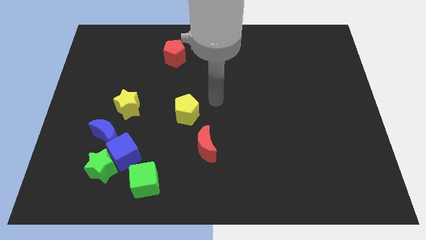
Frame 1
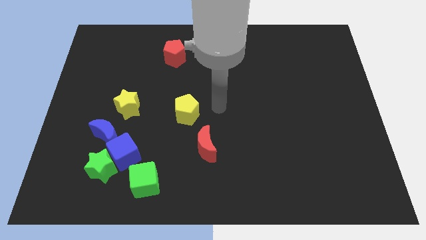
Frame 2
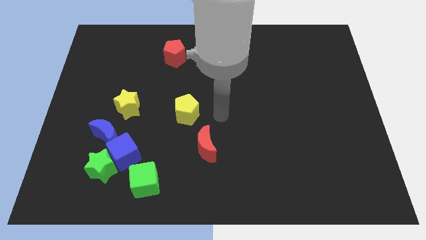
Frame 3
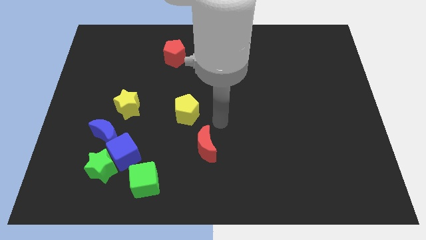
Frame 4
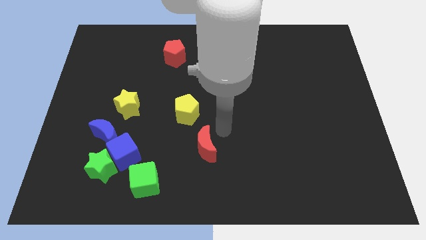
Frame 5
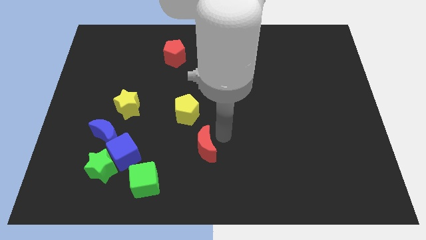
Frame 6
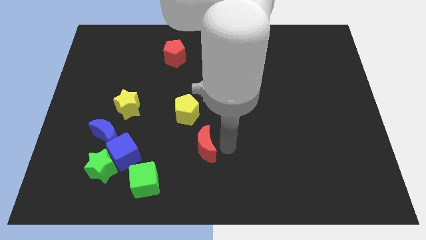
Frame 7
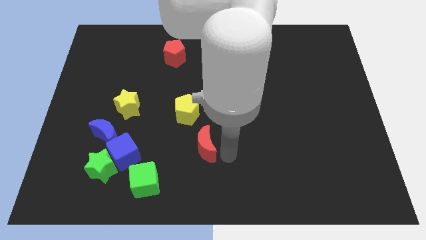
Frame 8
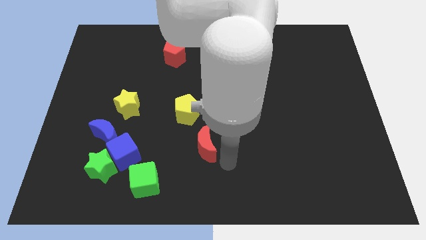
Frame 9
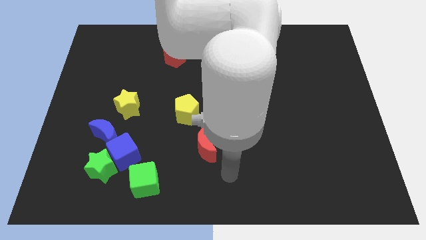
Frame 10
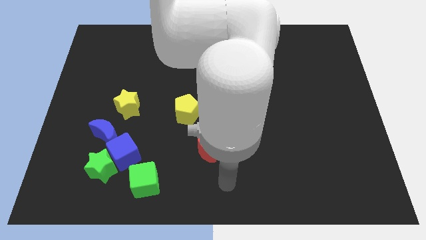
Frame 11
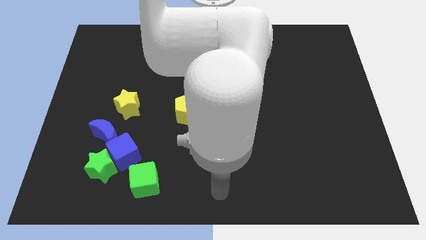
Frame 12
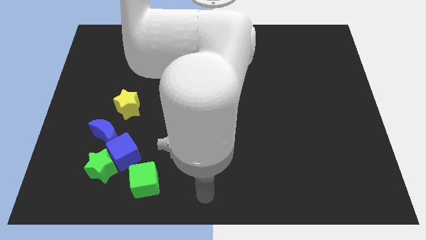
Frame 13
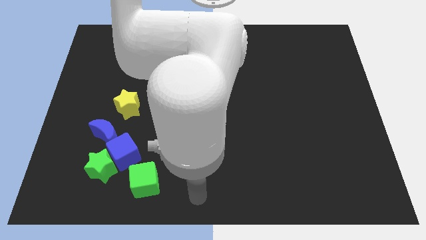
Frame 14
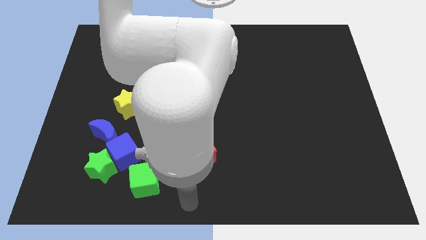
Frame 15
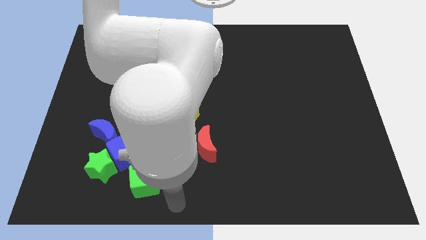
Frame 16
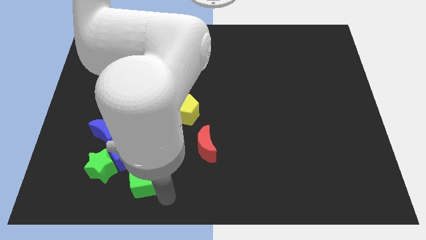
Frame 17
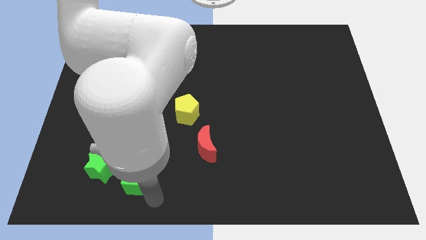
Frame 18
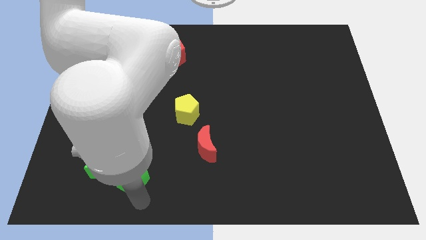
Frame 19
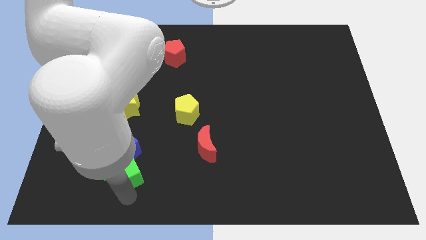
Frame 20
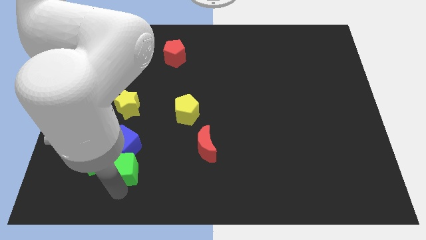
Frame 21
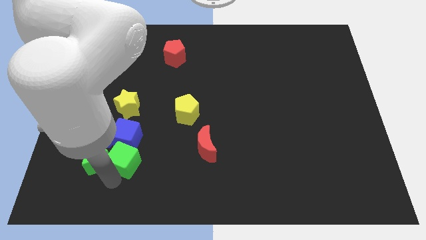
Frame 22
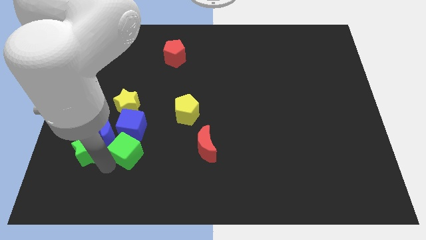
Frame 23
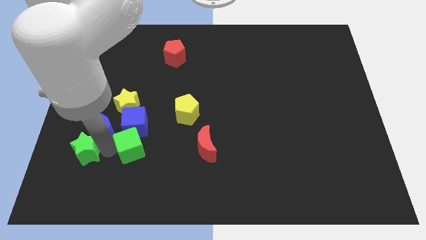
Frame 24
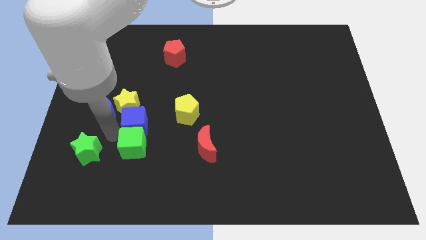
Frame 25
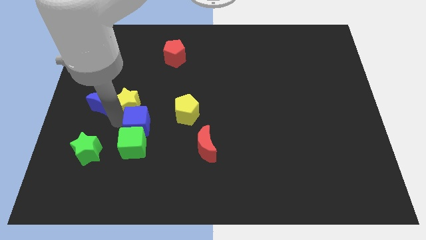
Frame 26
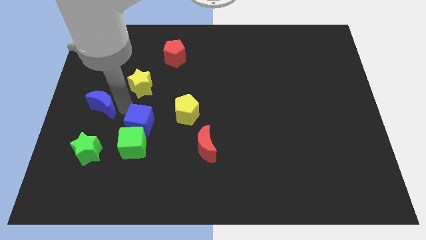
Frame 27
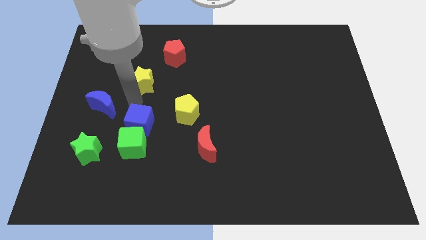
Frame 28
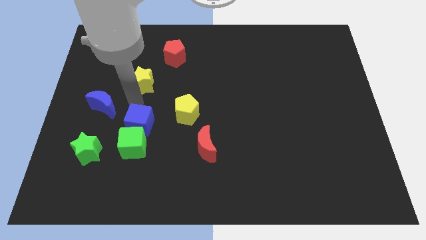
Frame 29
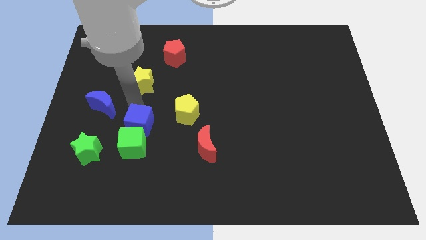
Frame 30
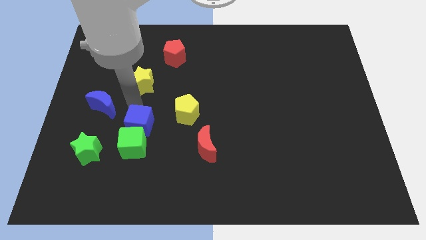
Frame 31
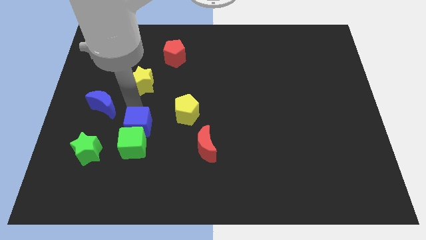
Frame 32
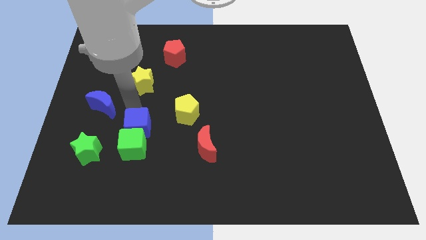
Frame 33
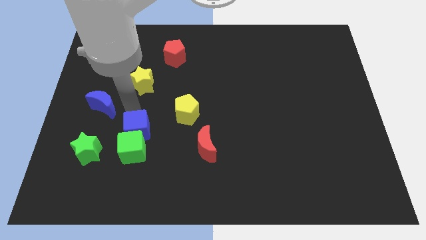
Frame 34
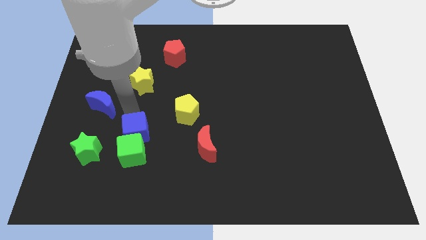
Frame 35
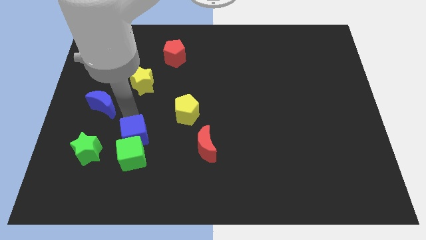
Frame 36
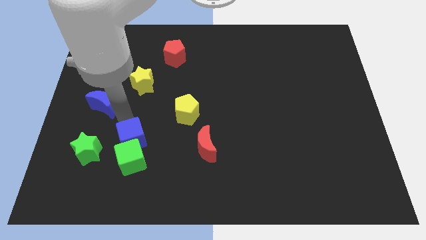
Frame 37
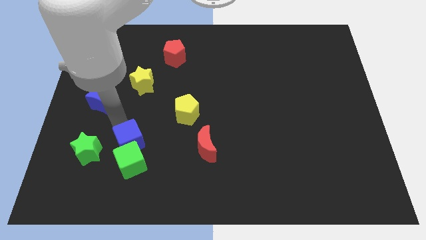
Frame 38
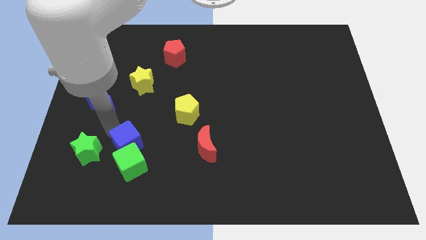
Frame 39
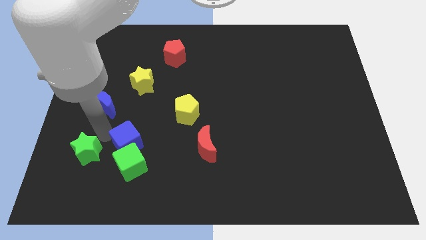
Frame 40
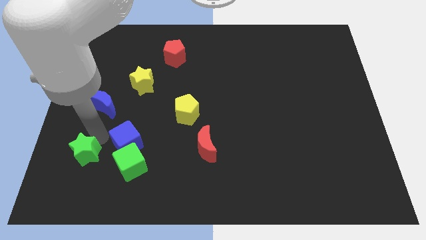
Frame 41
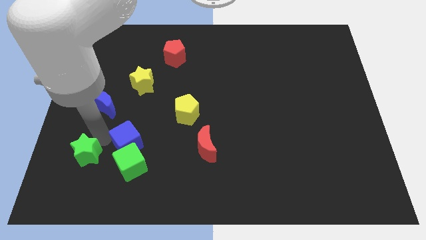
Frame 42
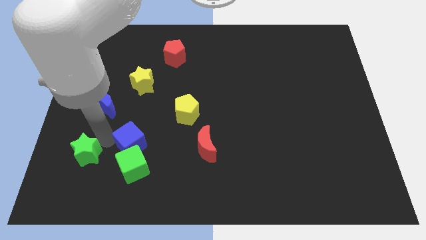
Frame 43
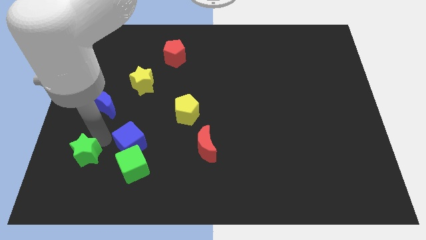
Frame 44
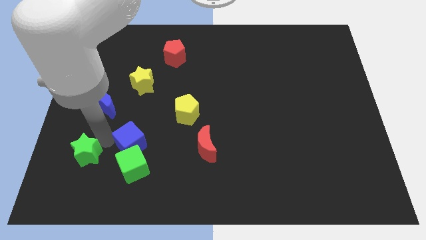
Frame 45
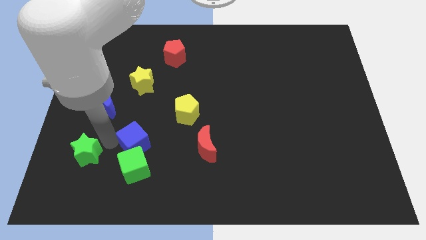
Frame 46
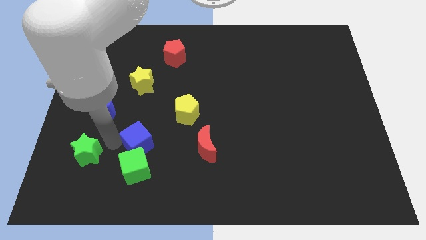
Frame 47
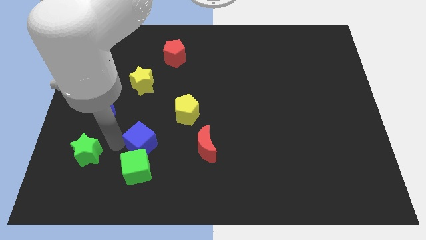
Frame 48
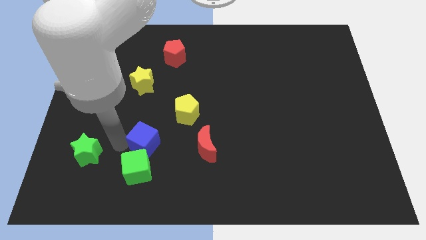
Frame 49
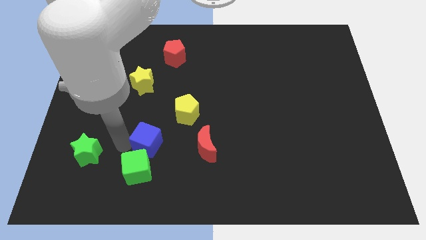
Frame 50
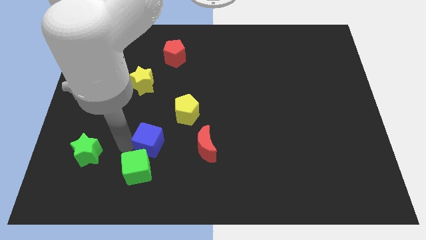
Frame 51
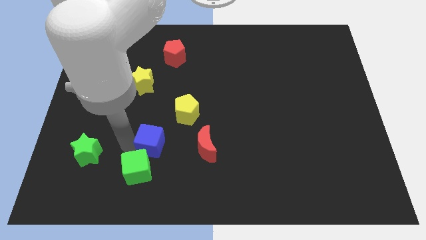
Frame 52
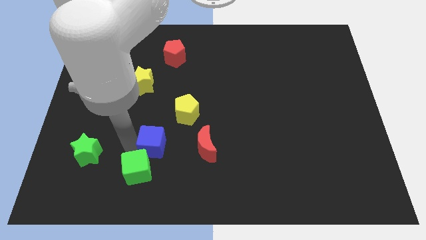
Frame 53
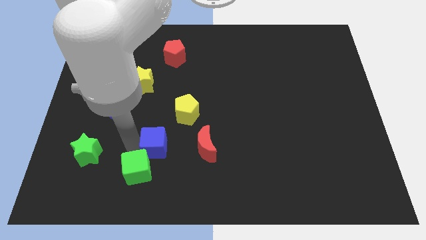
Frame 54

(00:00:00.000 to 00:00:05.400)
separate the blue cube from the group

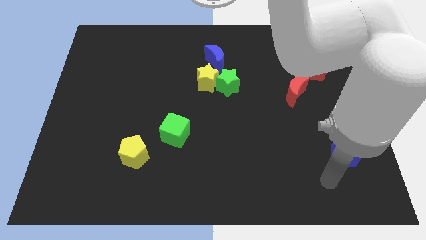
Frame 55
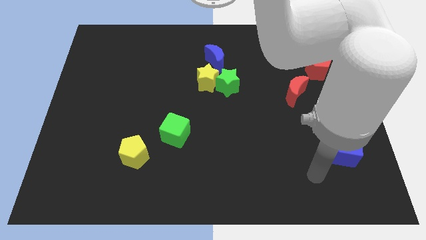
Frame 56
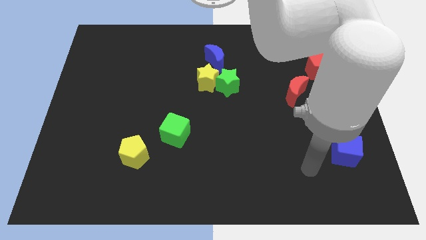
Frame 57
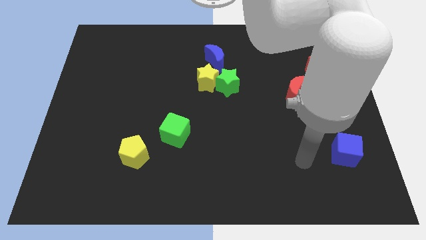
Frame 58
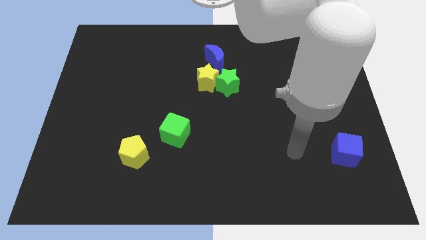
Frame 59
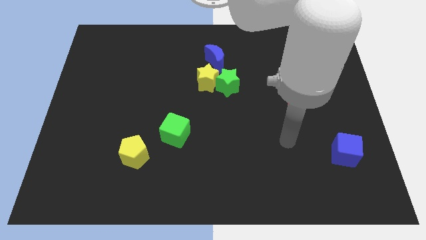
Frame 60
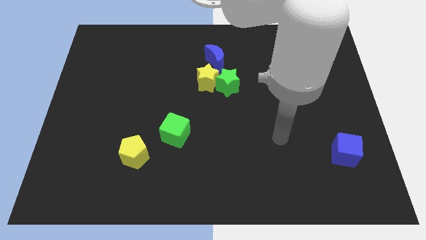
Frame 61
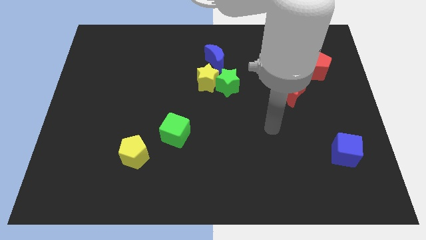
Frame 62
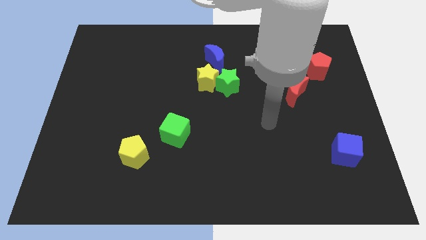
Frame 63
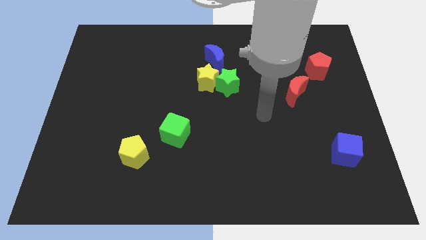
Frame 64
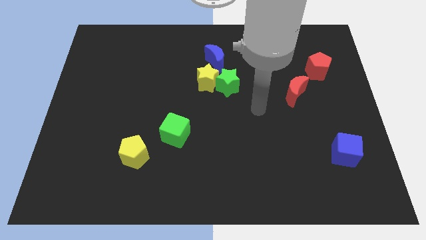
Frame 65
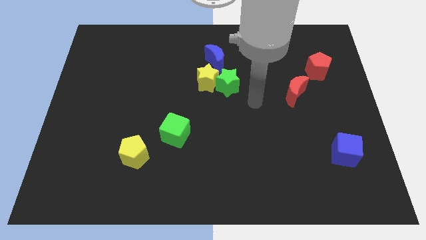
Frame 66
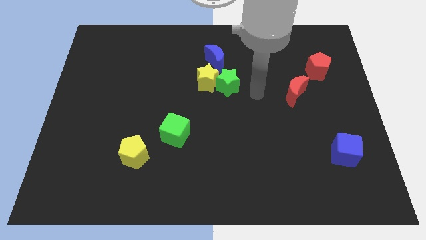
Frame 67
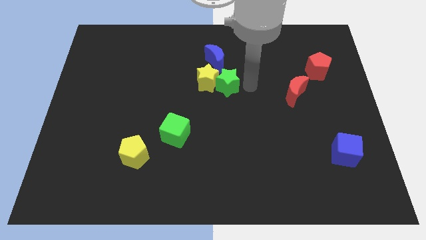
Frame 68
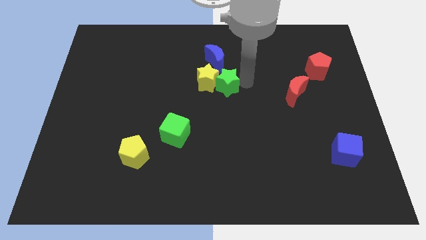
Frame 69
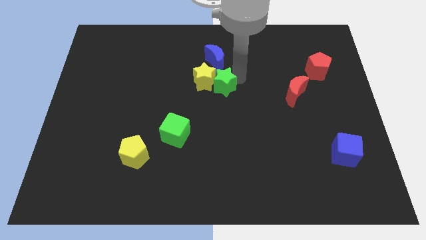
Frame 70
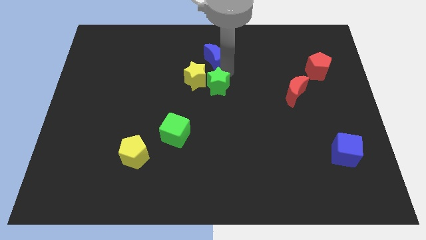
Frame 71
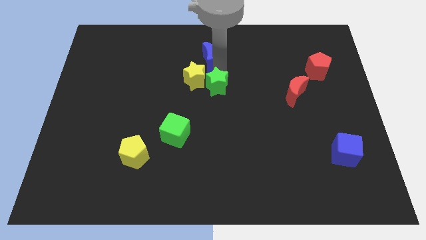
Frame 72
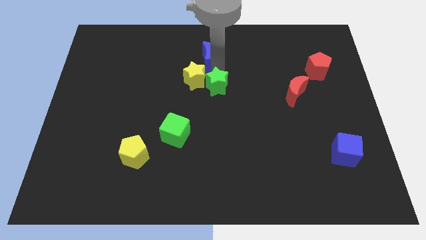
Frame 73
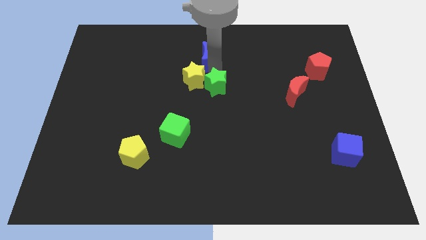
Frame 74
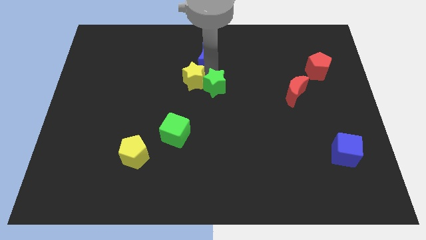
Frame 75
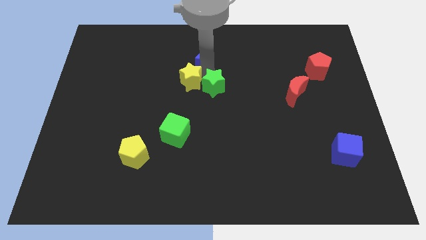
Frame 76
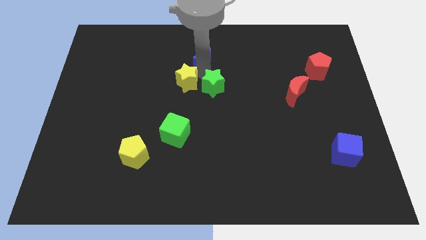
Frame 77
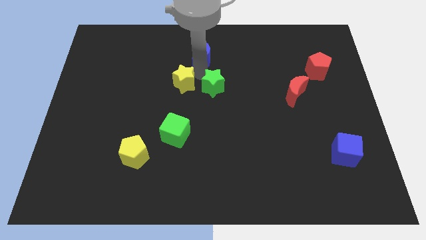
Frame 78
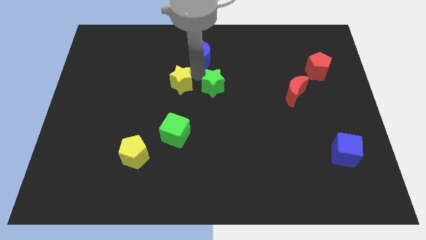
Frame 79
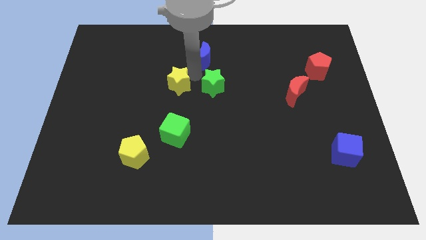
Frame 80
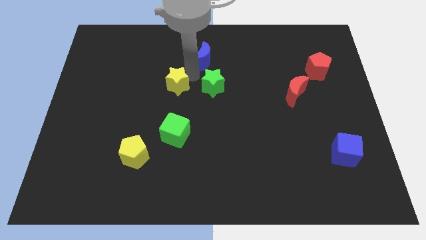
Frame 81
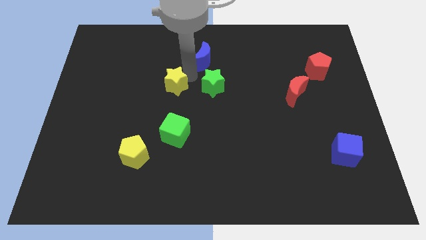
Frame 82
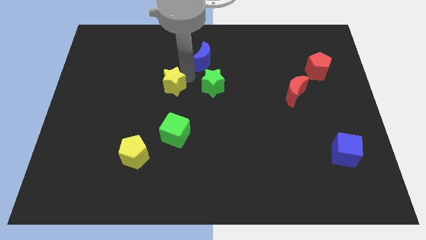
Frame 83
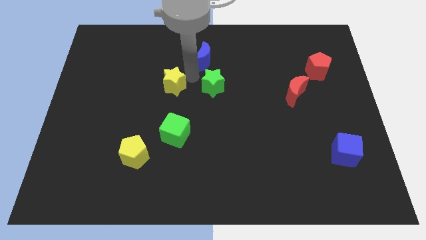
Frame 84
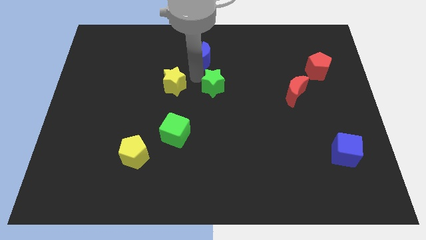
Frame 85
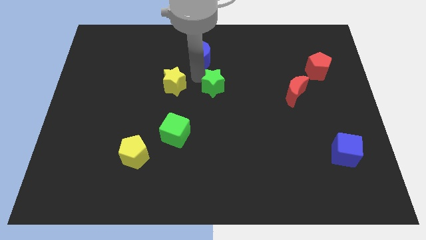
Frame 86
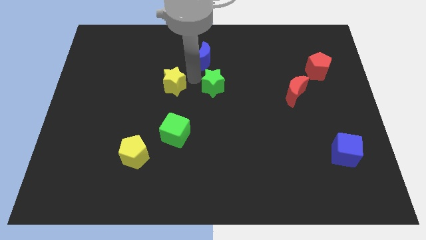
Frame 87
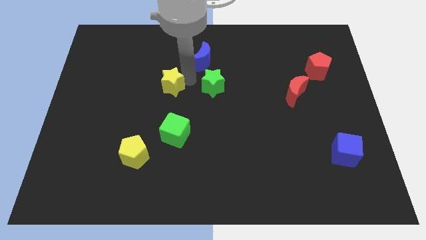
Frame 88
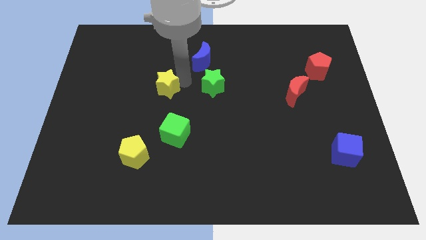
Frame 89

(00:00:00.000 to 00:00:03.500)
separate the yellow star from the green star and blue moon

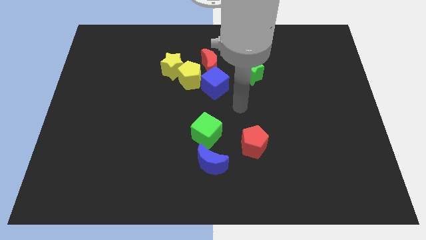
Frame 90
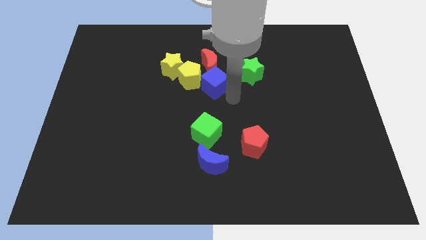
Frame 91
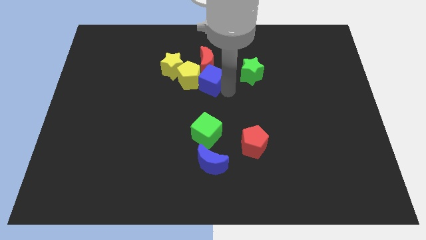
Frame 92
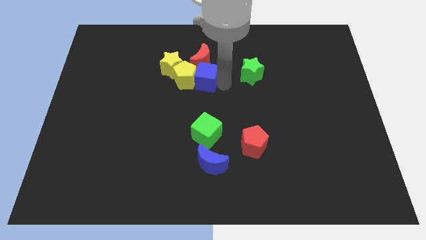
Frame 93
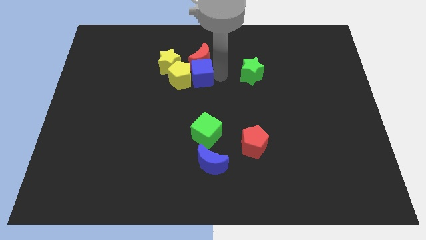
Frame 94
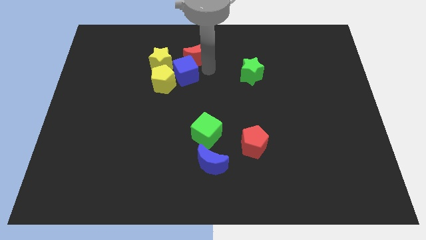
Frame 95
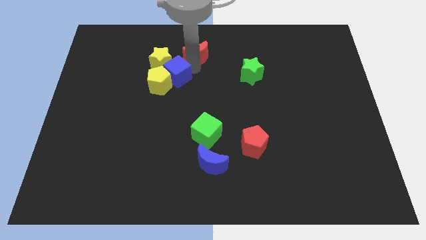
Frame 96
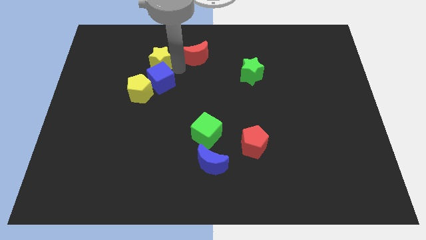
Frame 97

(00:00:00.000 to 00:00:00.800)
move the yellow pentagon away from the group
